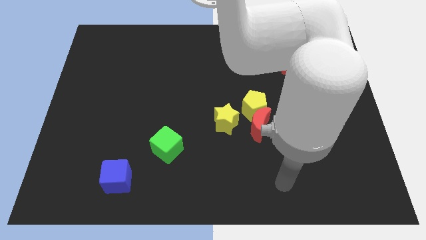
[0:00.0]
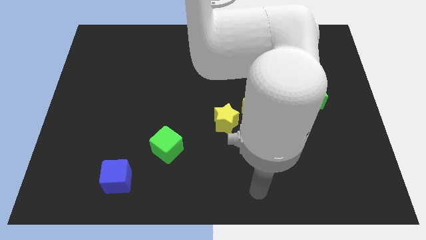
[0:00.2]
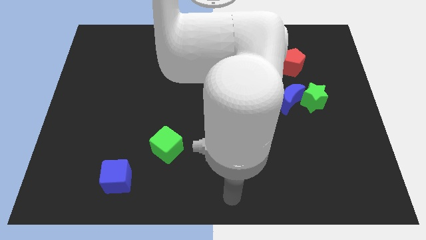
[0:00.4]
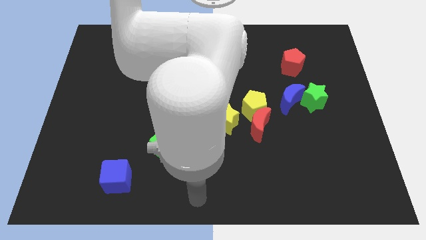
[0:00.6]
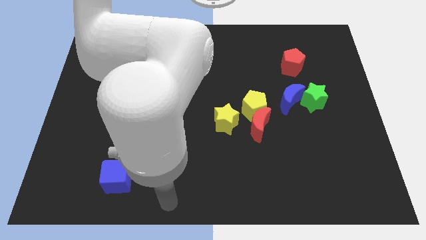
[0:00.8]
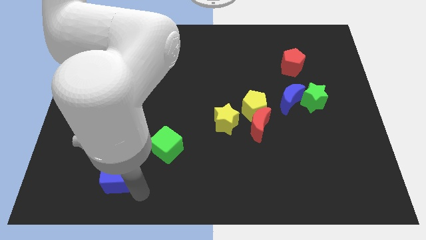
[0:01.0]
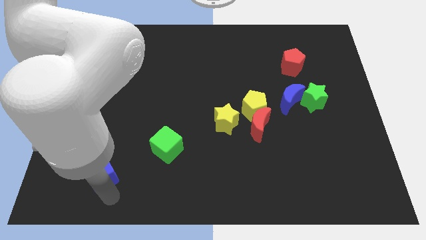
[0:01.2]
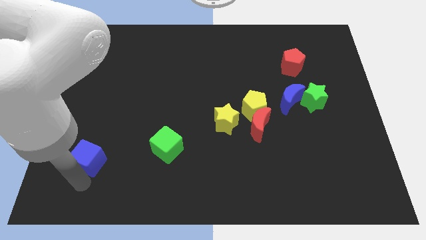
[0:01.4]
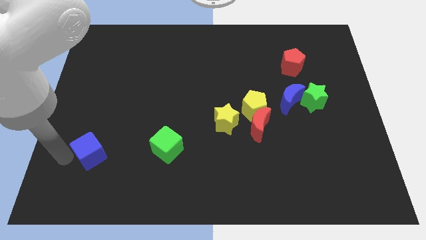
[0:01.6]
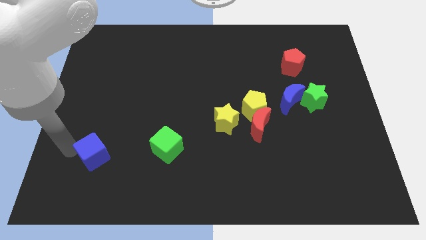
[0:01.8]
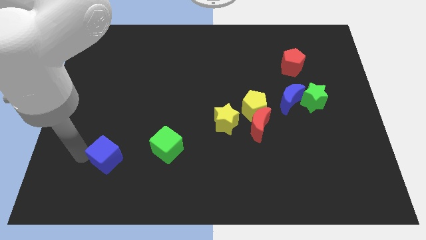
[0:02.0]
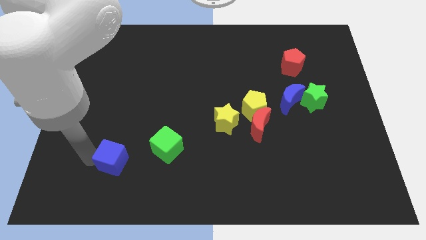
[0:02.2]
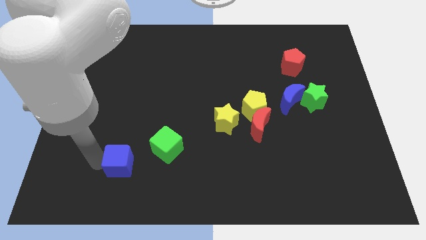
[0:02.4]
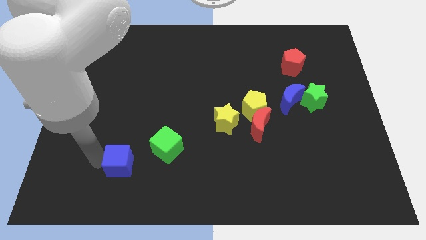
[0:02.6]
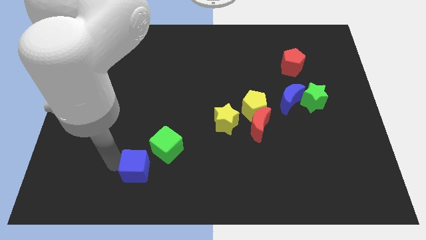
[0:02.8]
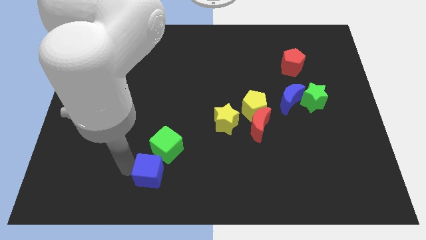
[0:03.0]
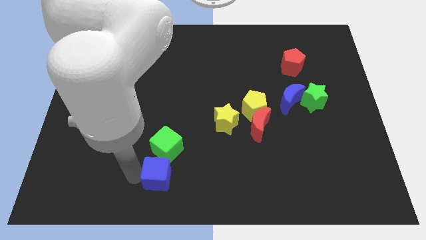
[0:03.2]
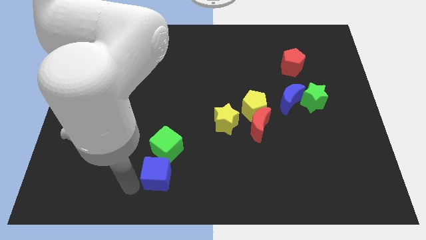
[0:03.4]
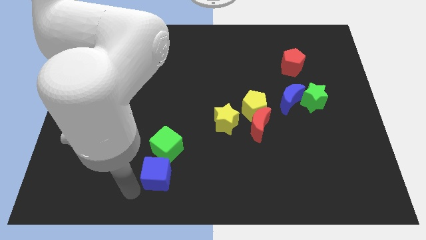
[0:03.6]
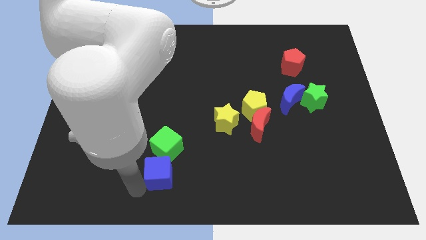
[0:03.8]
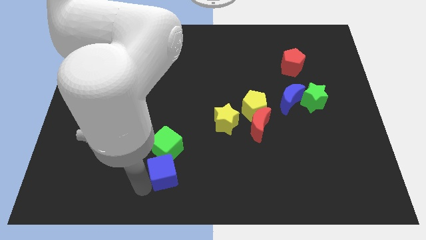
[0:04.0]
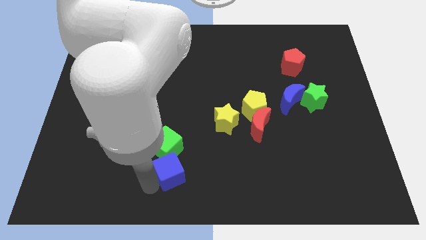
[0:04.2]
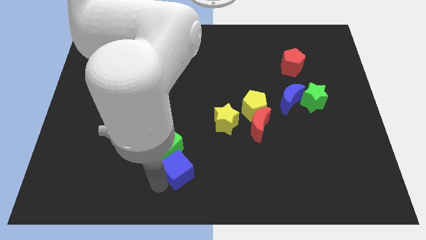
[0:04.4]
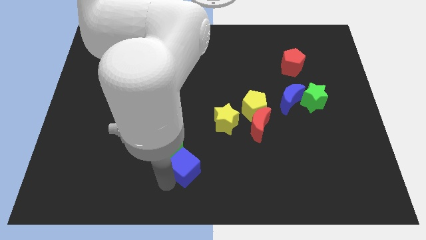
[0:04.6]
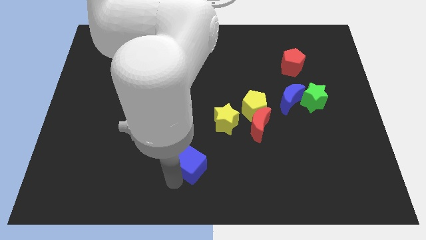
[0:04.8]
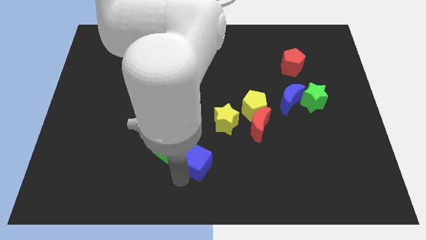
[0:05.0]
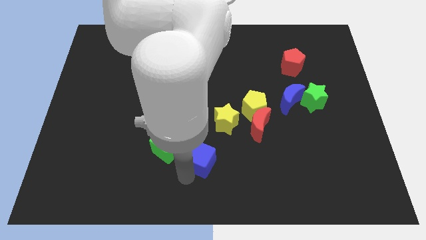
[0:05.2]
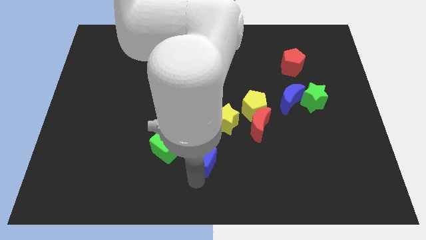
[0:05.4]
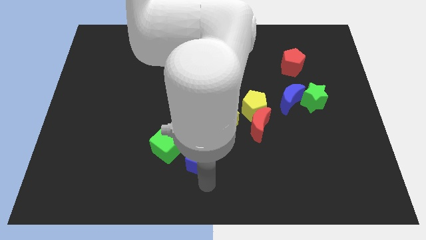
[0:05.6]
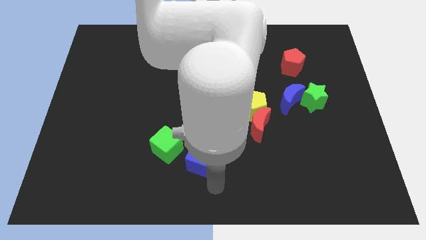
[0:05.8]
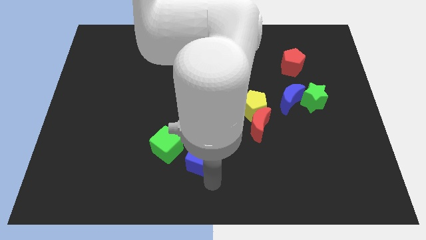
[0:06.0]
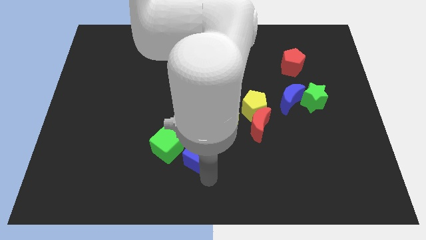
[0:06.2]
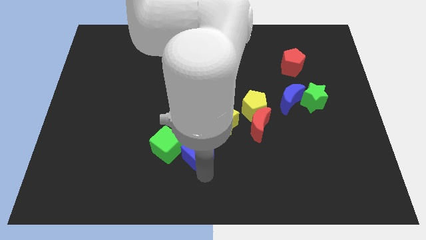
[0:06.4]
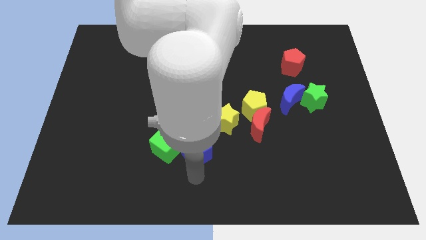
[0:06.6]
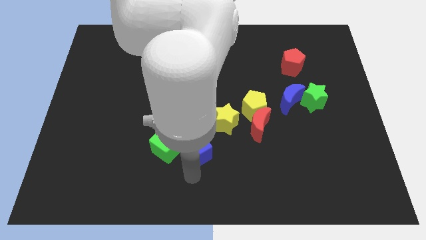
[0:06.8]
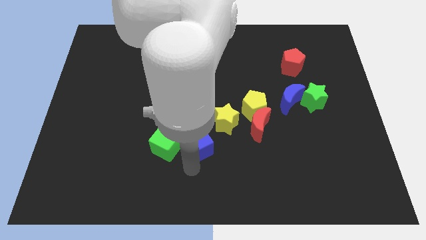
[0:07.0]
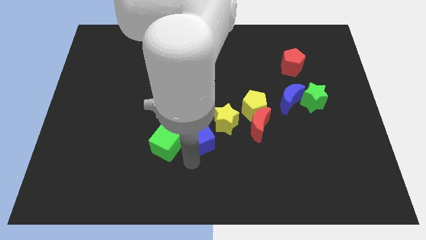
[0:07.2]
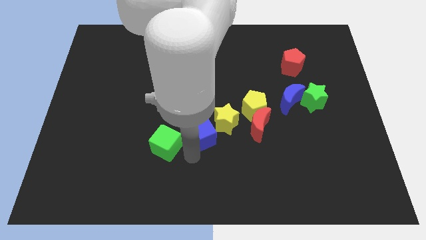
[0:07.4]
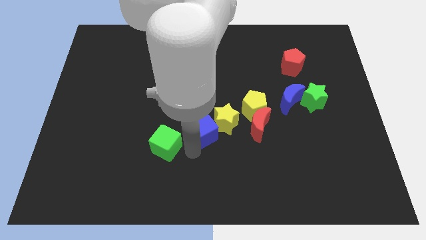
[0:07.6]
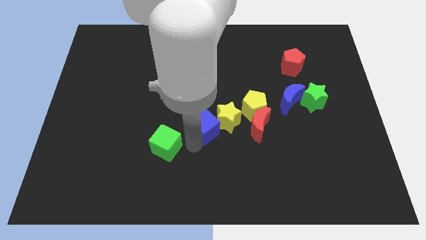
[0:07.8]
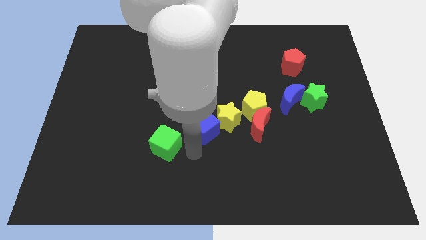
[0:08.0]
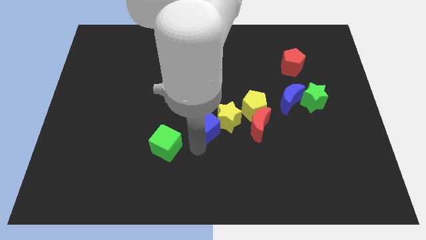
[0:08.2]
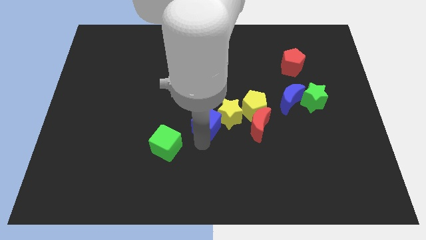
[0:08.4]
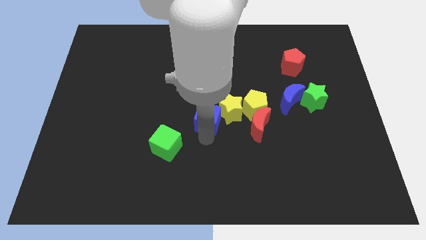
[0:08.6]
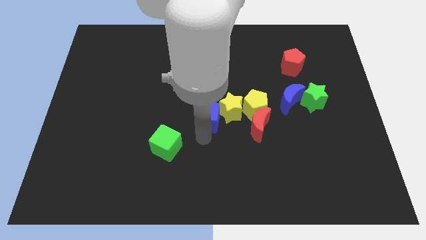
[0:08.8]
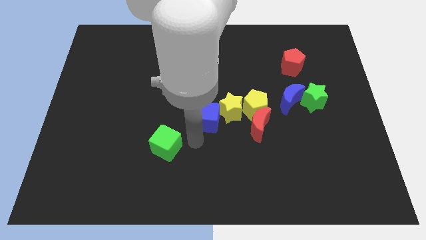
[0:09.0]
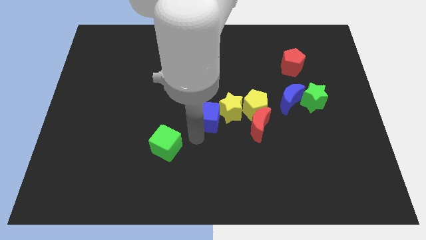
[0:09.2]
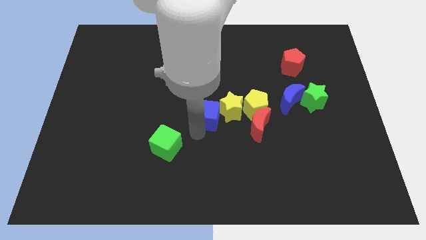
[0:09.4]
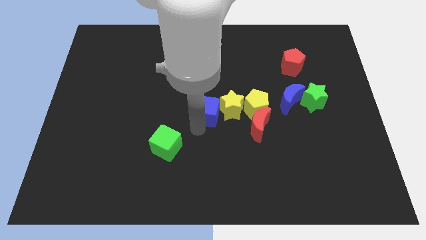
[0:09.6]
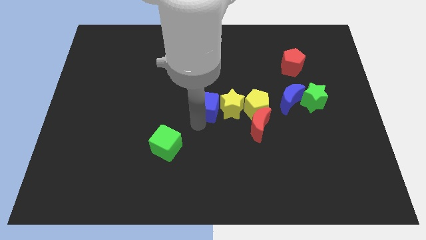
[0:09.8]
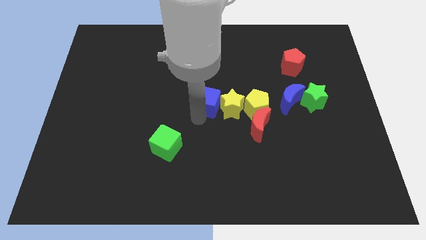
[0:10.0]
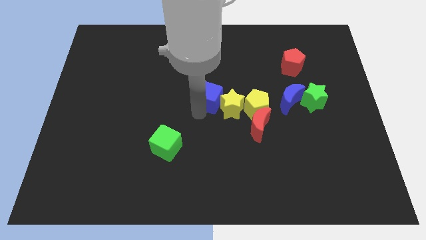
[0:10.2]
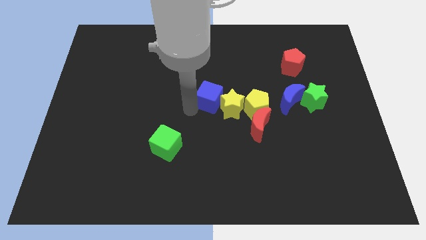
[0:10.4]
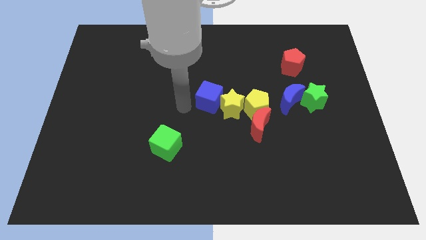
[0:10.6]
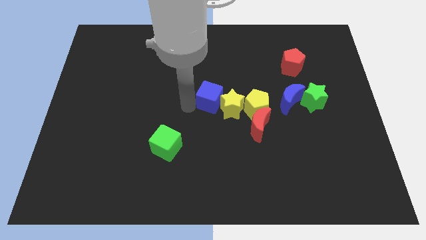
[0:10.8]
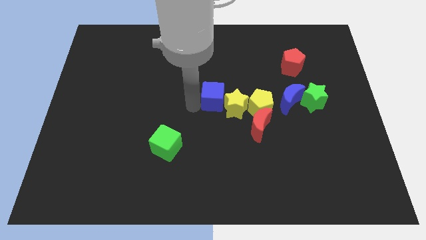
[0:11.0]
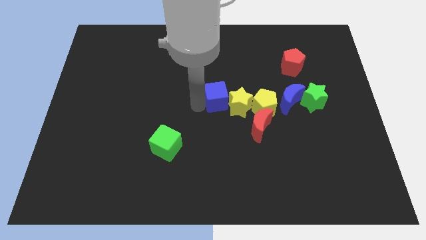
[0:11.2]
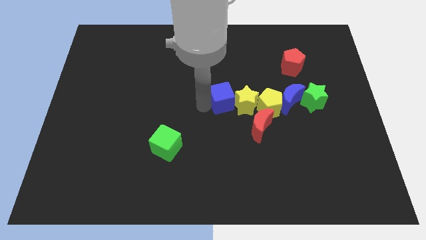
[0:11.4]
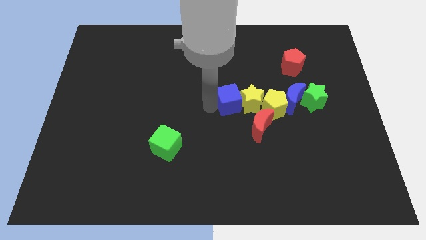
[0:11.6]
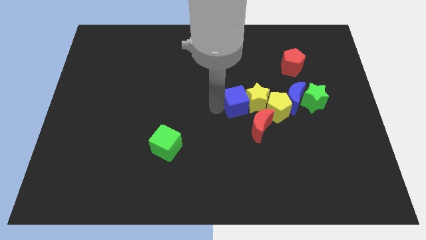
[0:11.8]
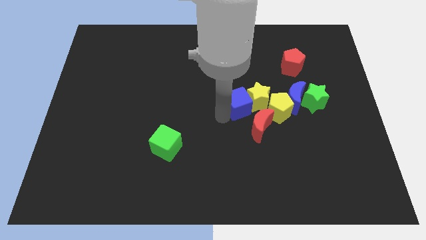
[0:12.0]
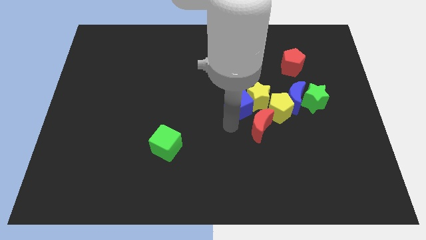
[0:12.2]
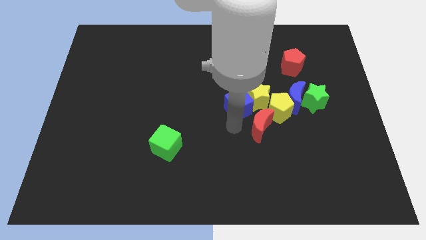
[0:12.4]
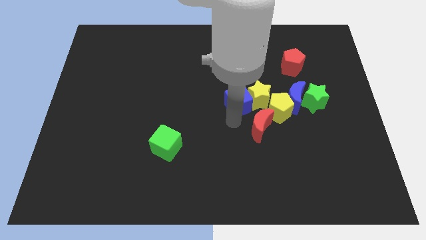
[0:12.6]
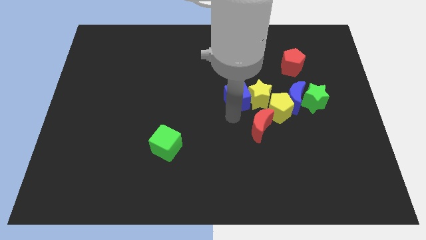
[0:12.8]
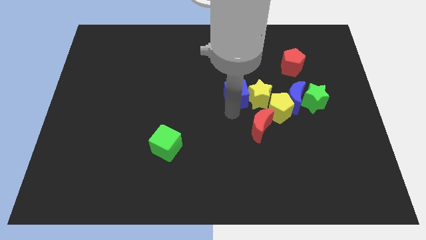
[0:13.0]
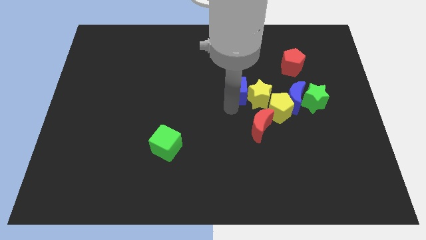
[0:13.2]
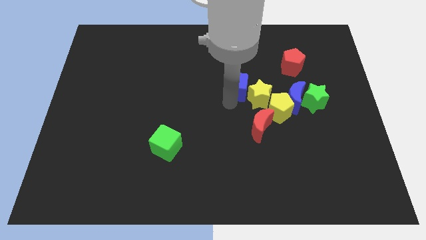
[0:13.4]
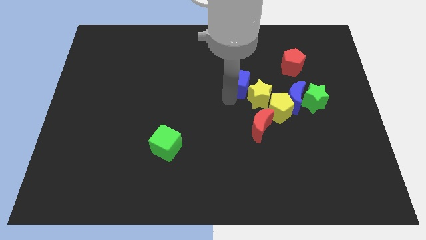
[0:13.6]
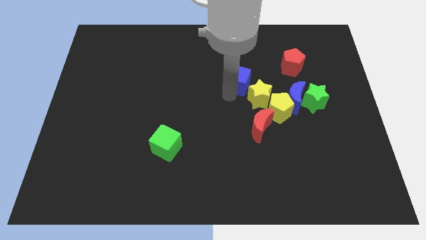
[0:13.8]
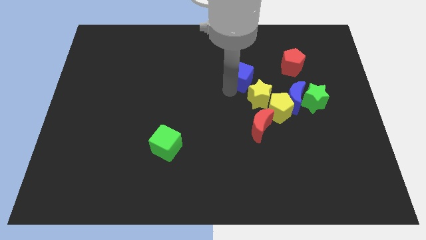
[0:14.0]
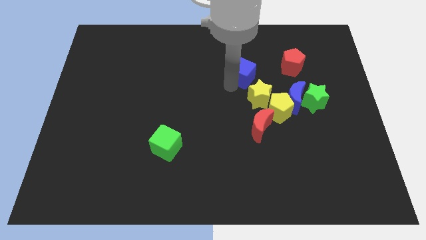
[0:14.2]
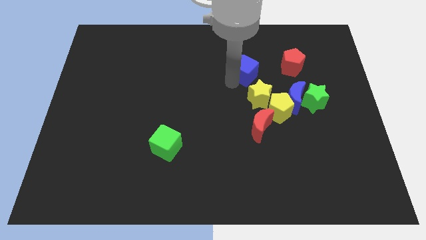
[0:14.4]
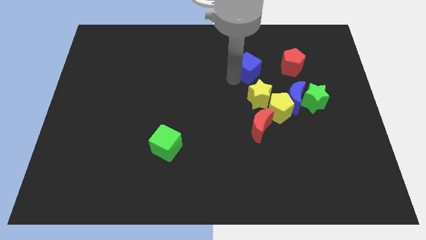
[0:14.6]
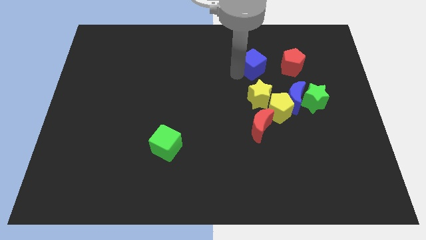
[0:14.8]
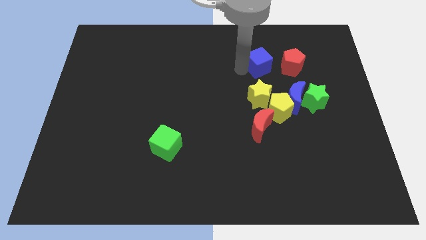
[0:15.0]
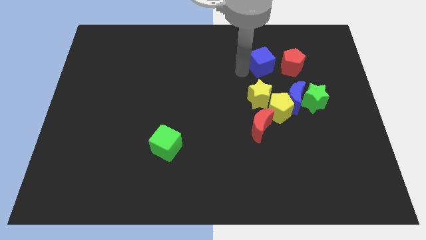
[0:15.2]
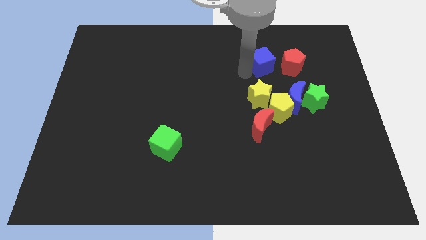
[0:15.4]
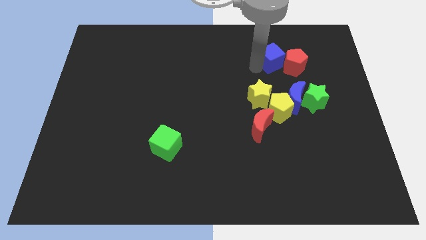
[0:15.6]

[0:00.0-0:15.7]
move the blue cube above the blue moon
